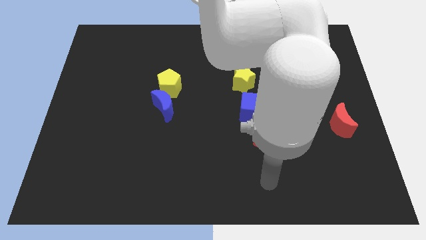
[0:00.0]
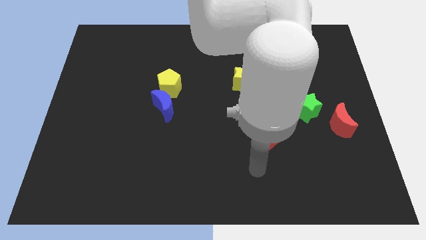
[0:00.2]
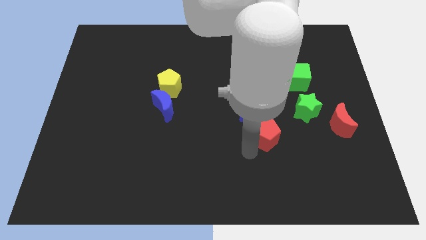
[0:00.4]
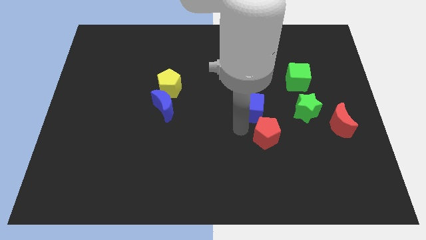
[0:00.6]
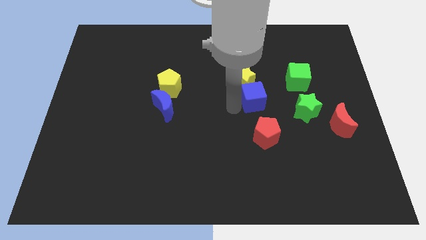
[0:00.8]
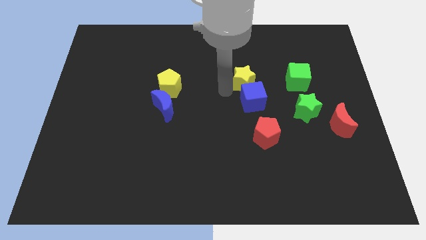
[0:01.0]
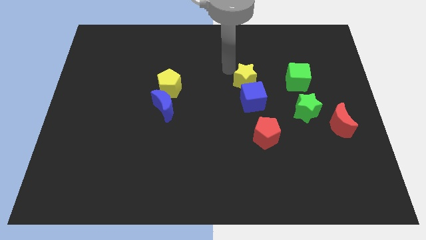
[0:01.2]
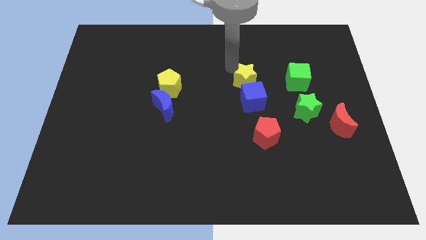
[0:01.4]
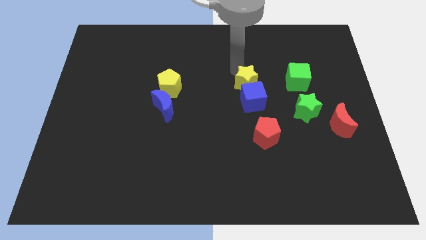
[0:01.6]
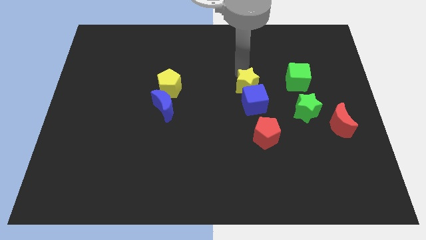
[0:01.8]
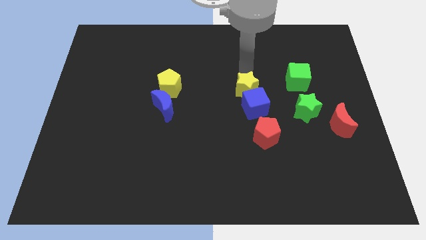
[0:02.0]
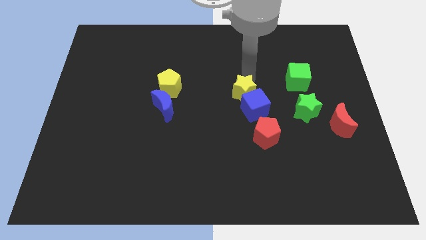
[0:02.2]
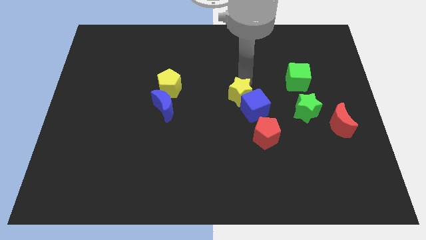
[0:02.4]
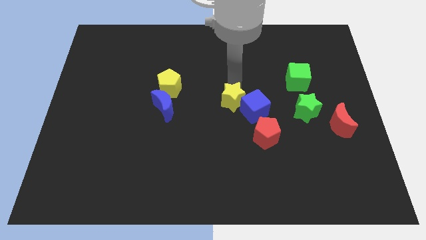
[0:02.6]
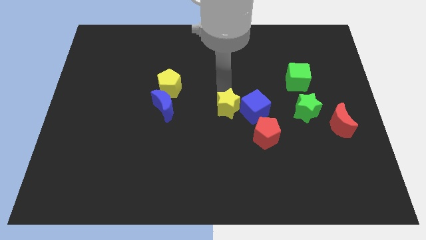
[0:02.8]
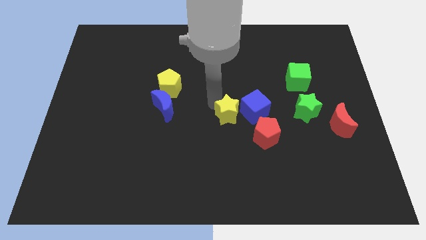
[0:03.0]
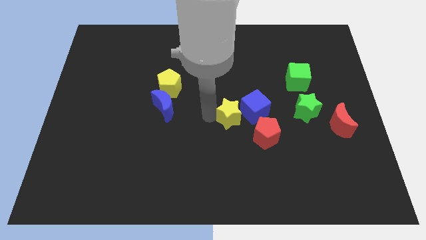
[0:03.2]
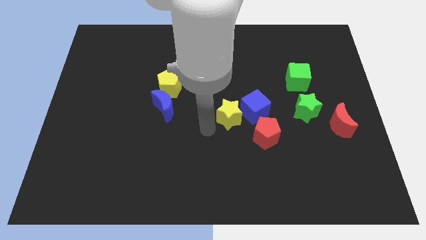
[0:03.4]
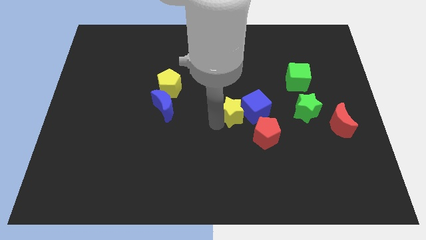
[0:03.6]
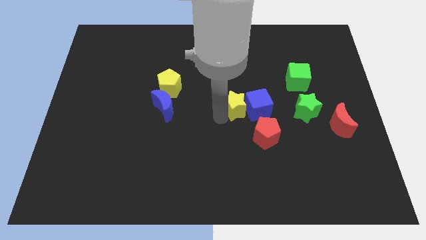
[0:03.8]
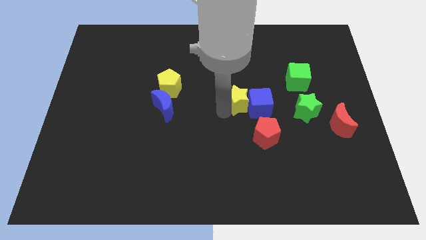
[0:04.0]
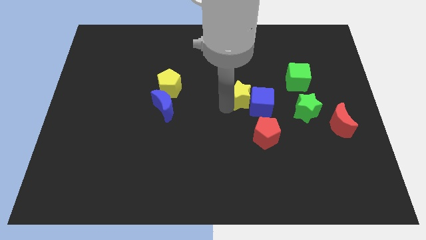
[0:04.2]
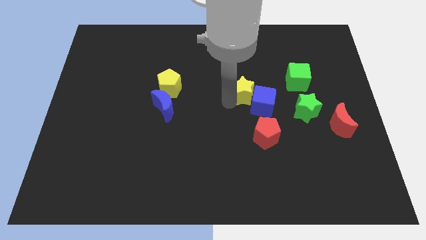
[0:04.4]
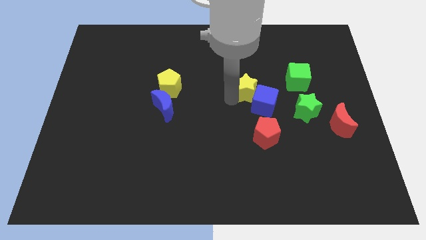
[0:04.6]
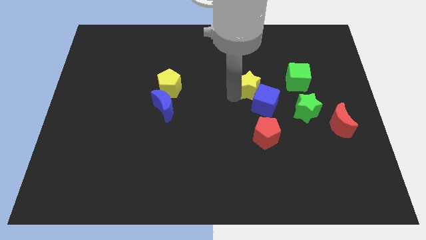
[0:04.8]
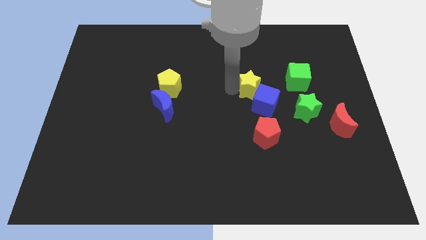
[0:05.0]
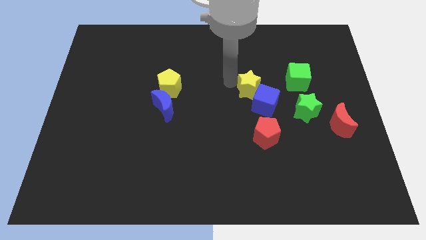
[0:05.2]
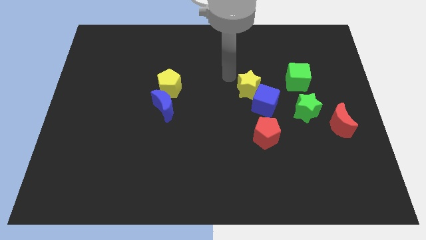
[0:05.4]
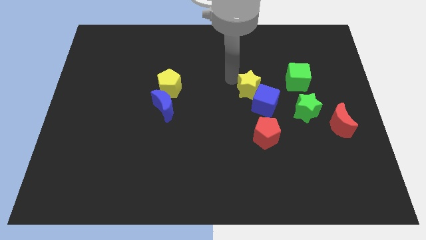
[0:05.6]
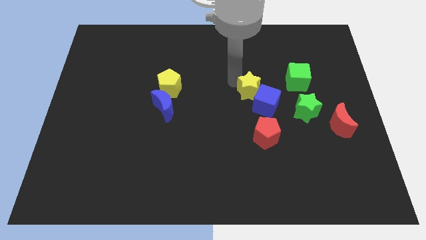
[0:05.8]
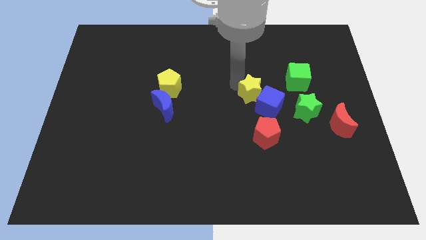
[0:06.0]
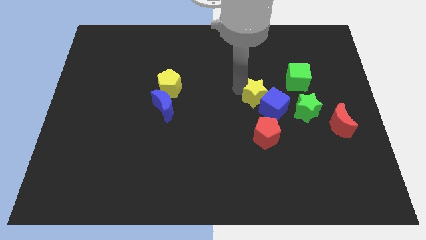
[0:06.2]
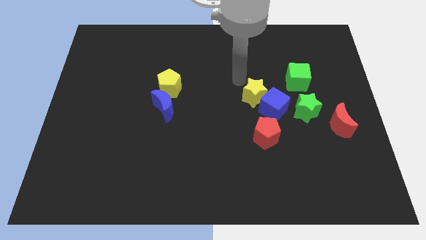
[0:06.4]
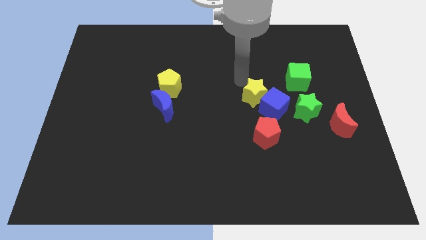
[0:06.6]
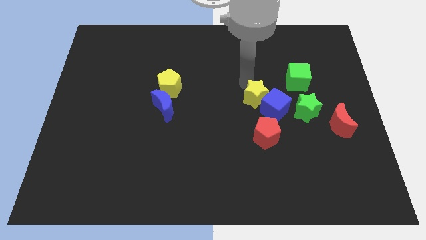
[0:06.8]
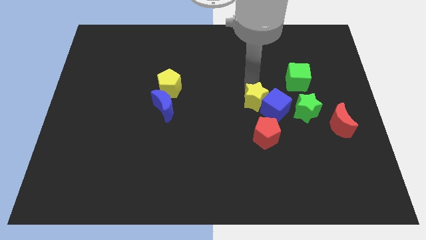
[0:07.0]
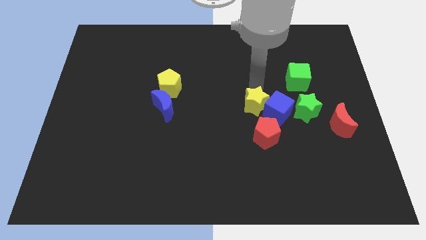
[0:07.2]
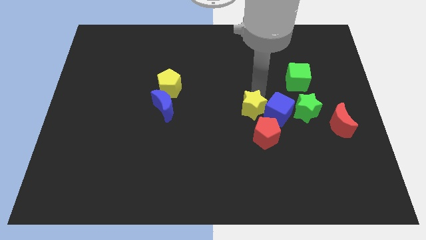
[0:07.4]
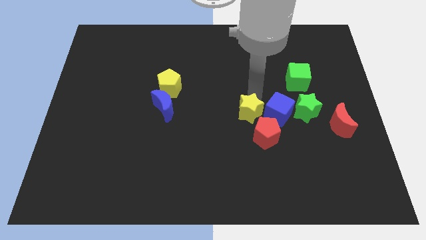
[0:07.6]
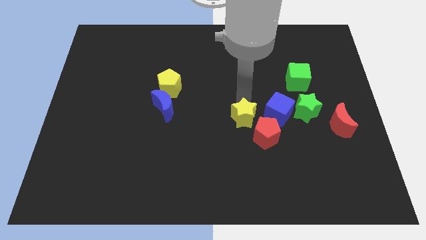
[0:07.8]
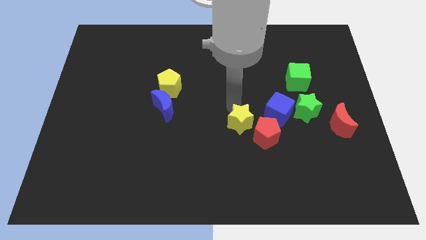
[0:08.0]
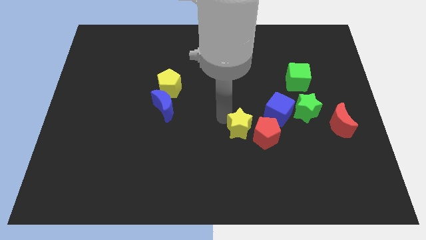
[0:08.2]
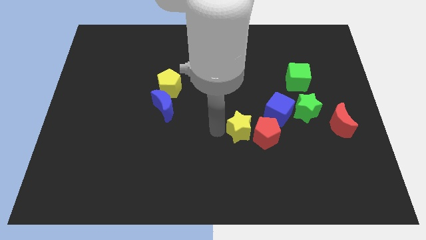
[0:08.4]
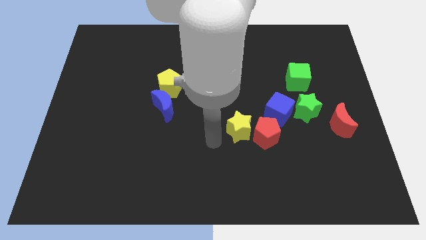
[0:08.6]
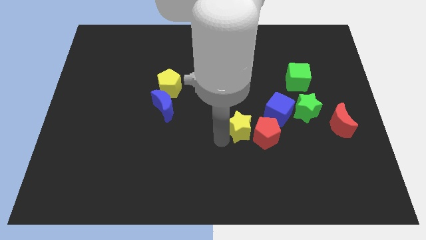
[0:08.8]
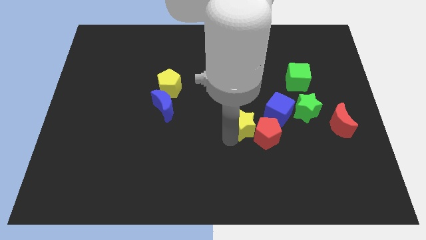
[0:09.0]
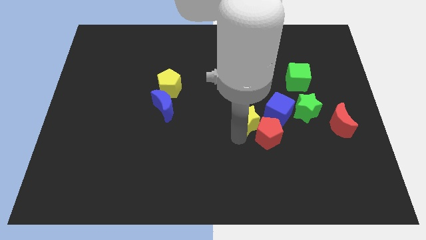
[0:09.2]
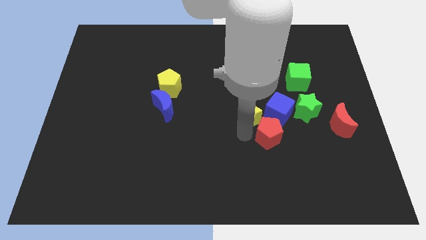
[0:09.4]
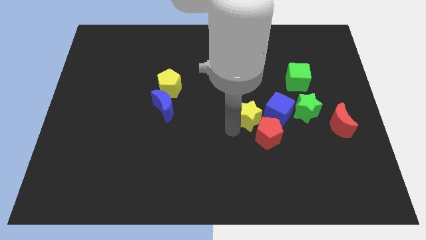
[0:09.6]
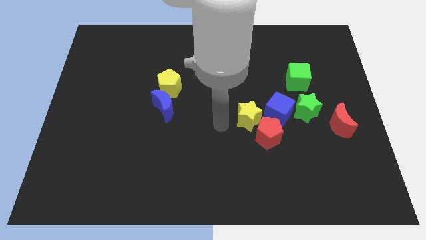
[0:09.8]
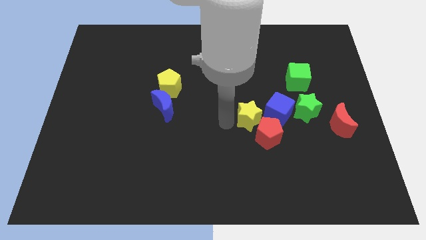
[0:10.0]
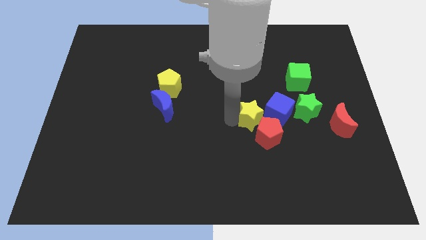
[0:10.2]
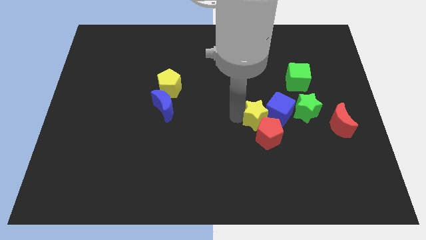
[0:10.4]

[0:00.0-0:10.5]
slide the yellow star somewhat downwards and to the right diagonally

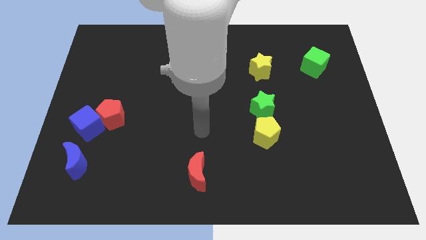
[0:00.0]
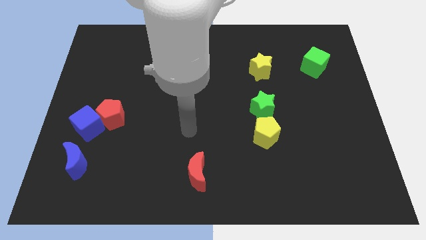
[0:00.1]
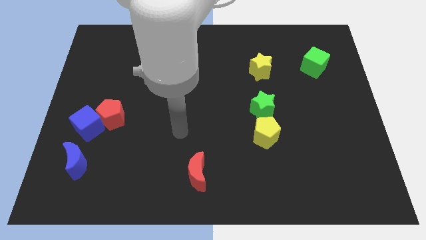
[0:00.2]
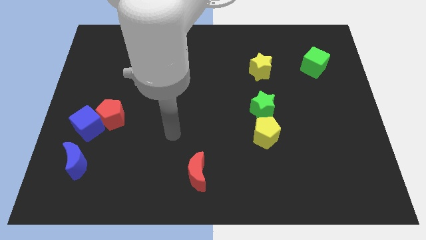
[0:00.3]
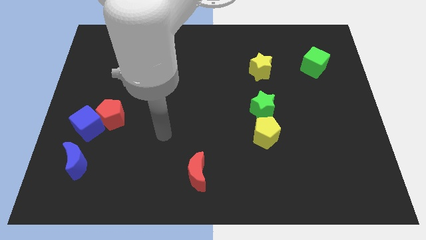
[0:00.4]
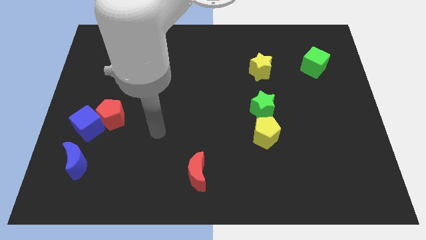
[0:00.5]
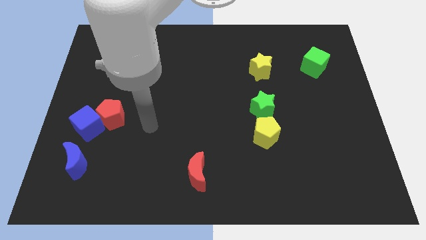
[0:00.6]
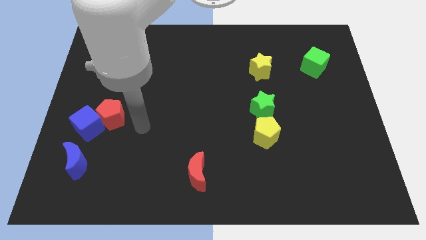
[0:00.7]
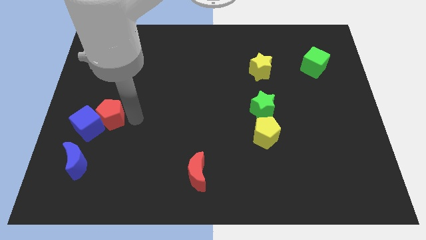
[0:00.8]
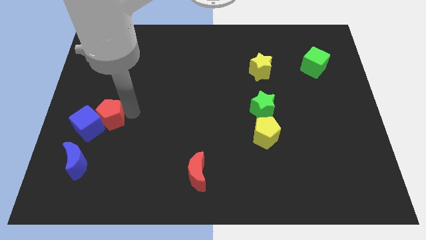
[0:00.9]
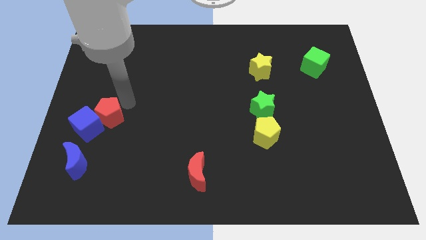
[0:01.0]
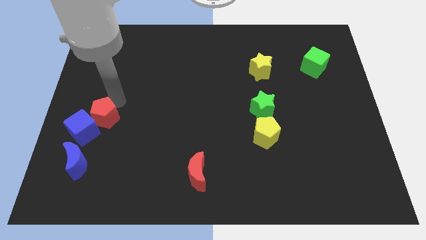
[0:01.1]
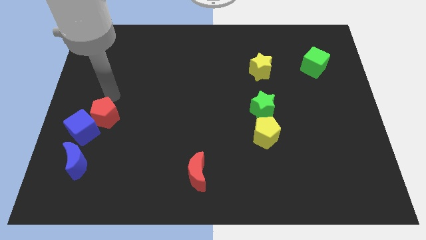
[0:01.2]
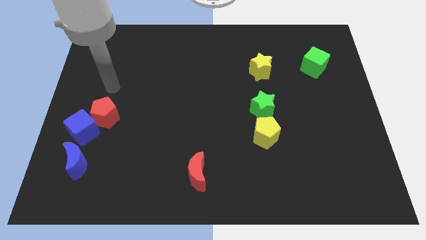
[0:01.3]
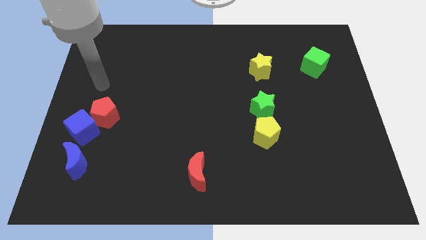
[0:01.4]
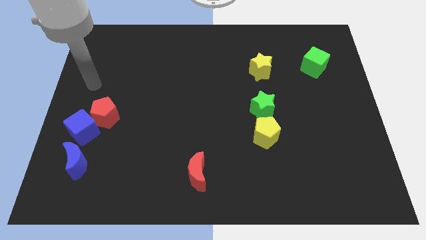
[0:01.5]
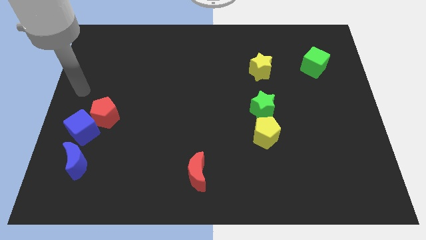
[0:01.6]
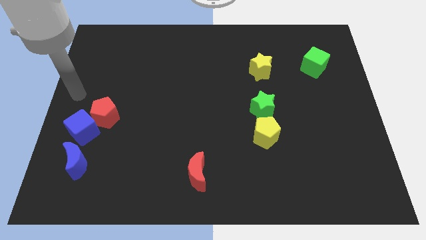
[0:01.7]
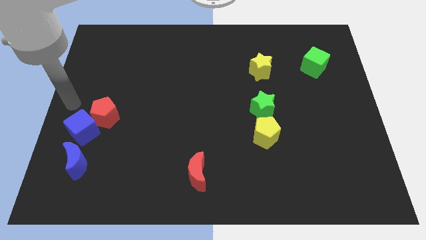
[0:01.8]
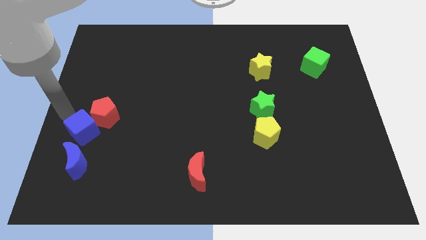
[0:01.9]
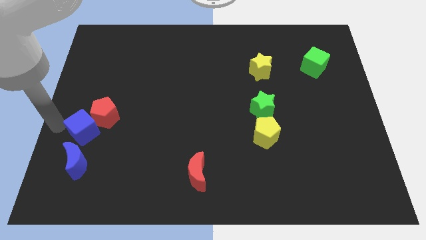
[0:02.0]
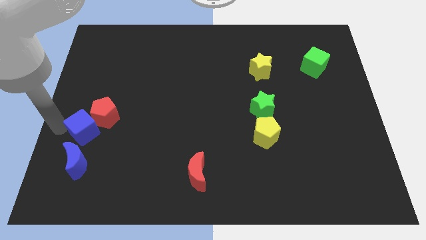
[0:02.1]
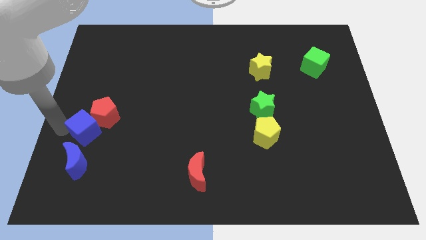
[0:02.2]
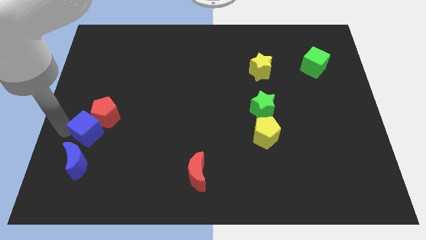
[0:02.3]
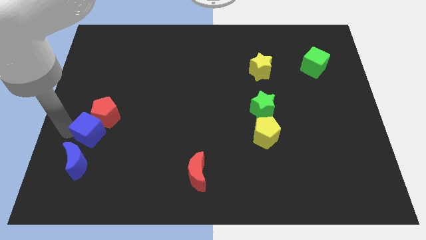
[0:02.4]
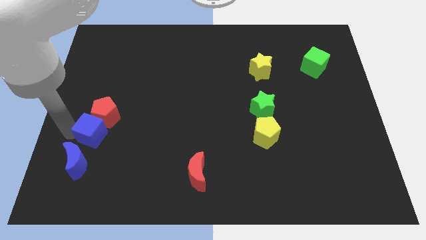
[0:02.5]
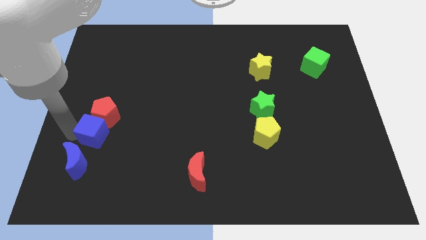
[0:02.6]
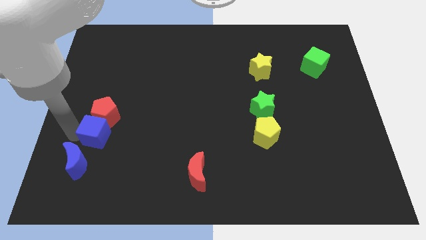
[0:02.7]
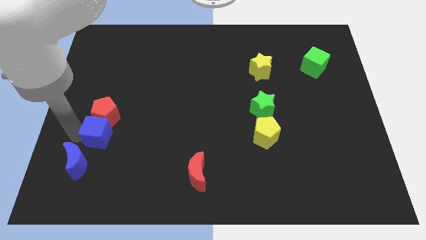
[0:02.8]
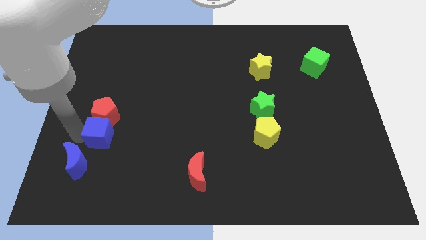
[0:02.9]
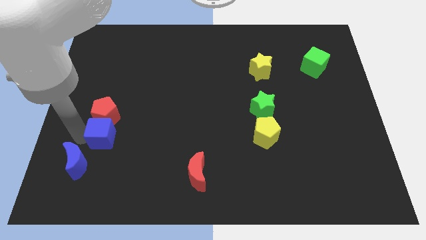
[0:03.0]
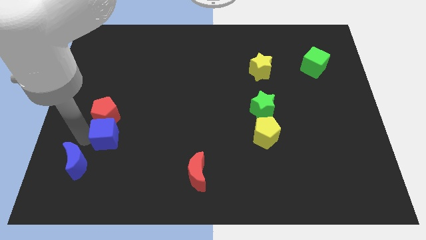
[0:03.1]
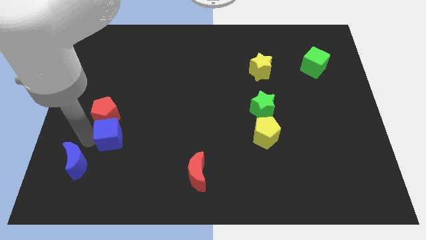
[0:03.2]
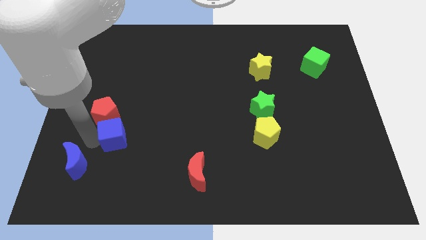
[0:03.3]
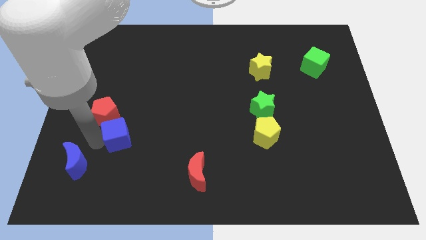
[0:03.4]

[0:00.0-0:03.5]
move the blue cube somewhat right
